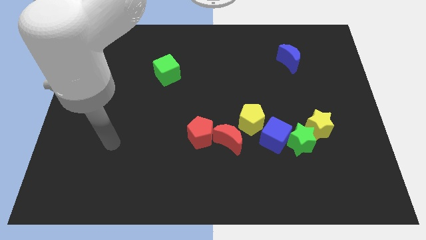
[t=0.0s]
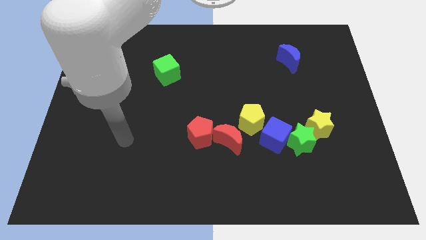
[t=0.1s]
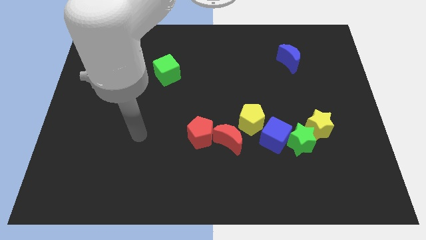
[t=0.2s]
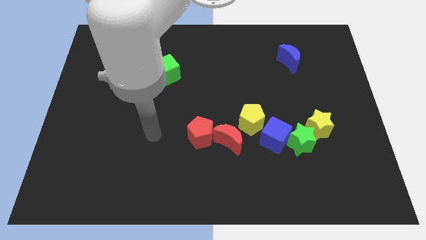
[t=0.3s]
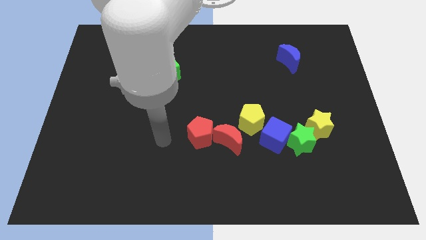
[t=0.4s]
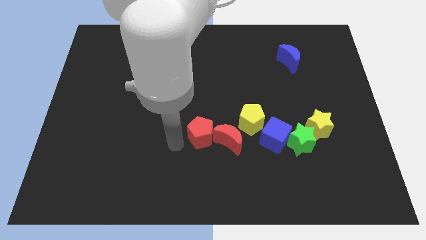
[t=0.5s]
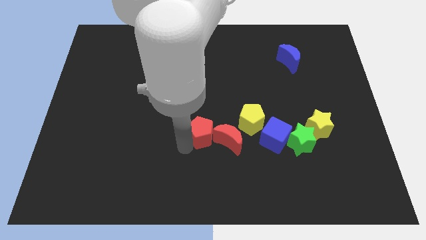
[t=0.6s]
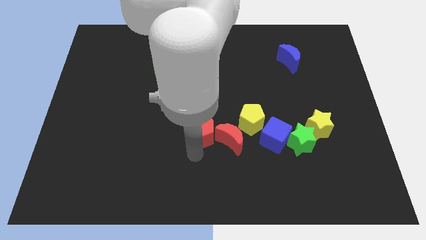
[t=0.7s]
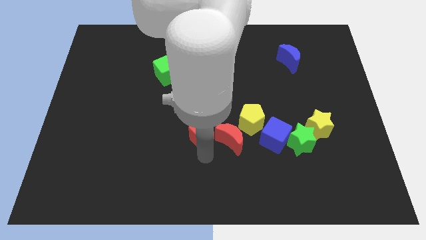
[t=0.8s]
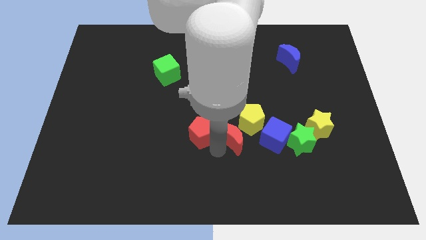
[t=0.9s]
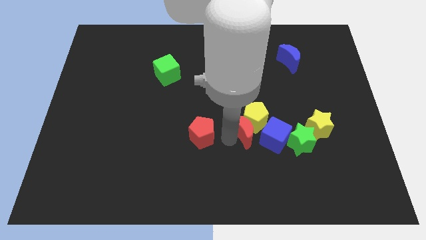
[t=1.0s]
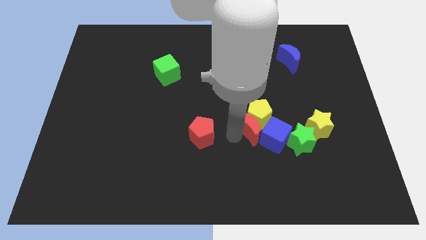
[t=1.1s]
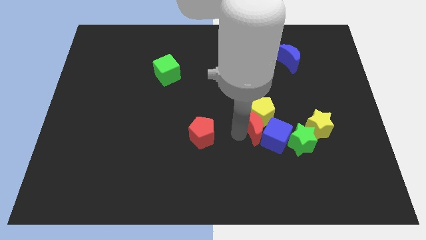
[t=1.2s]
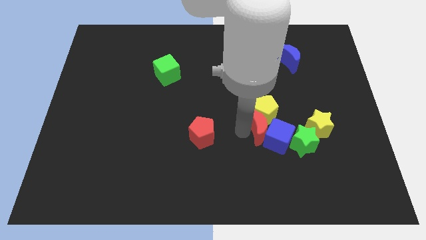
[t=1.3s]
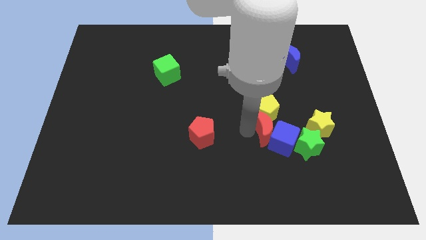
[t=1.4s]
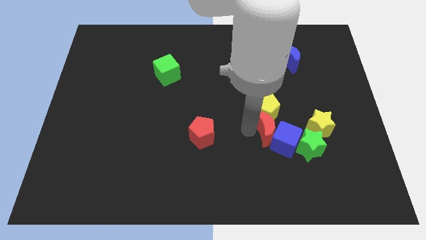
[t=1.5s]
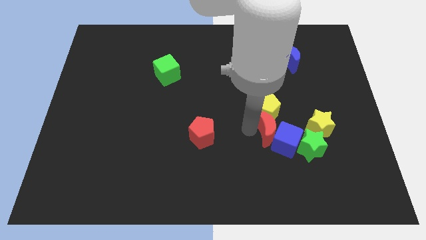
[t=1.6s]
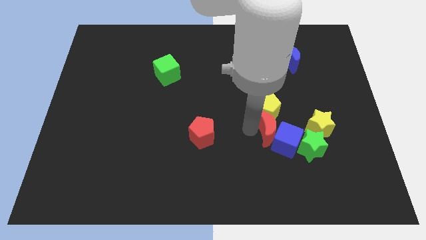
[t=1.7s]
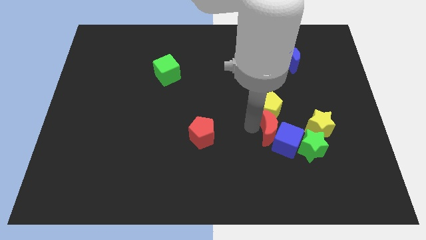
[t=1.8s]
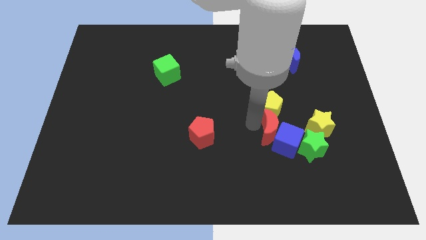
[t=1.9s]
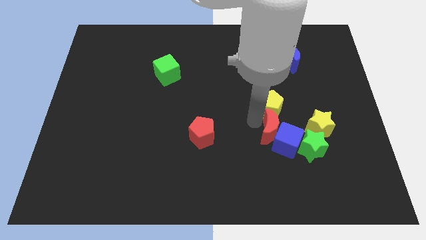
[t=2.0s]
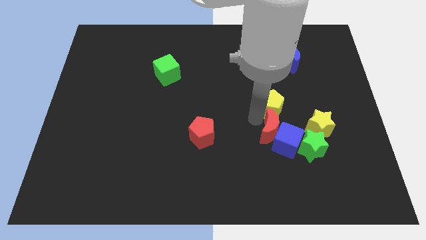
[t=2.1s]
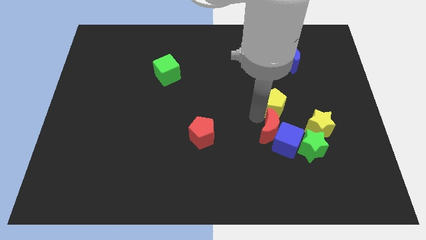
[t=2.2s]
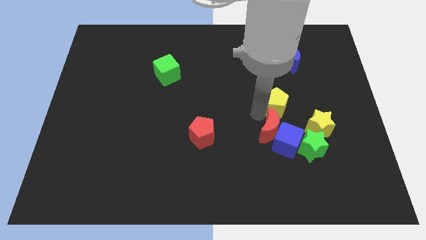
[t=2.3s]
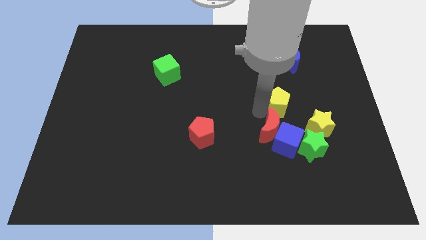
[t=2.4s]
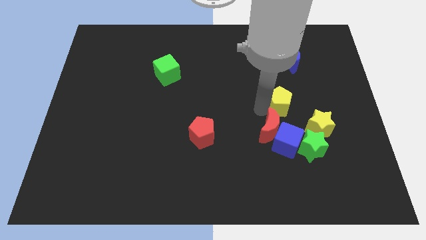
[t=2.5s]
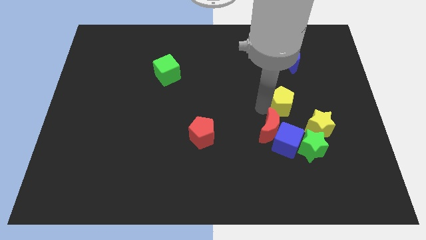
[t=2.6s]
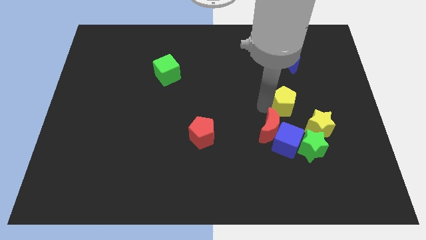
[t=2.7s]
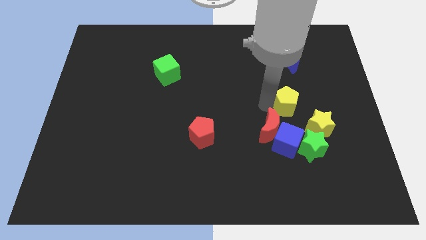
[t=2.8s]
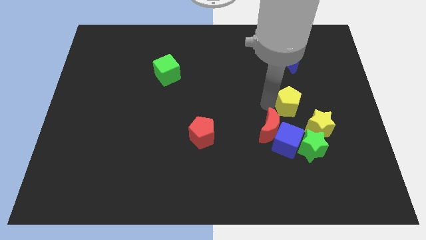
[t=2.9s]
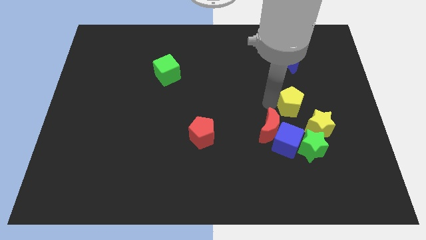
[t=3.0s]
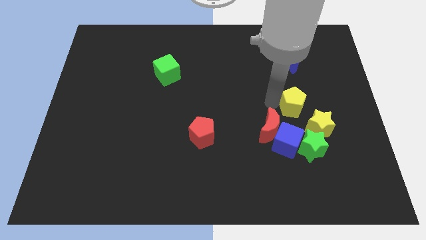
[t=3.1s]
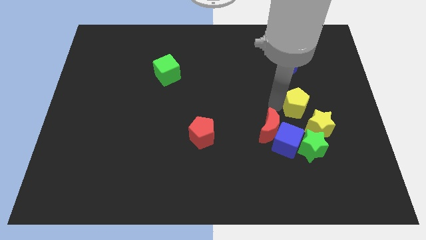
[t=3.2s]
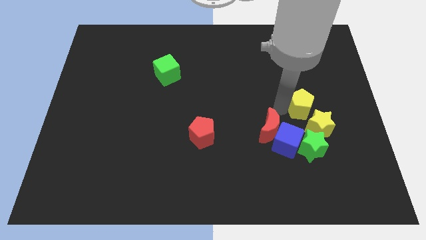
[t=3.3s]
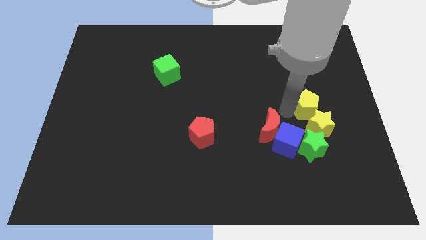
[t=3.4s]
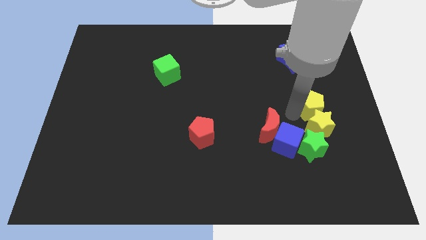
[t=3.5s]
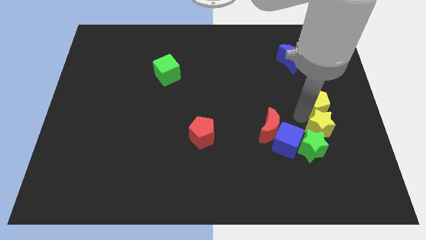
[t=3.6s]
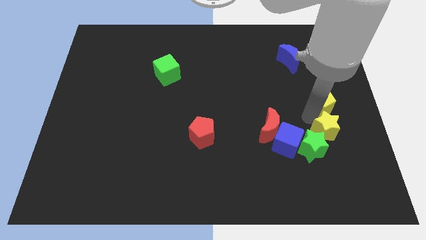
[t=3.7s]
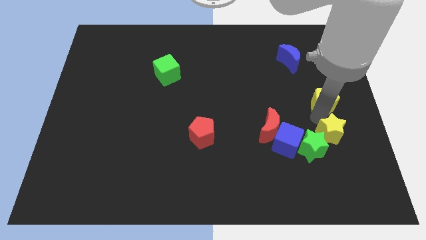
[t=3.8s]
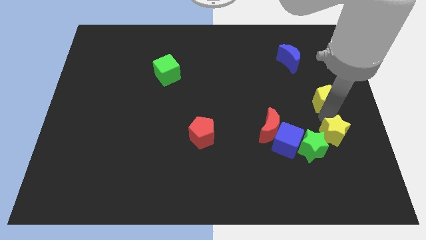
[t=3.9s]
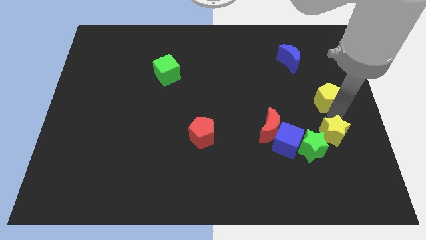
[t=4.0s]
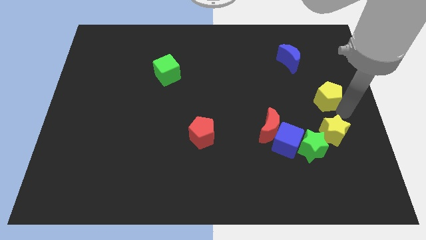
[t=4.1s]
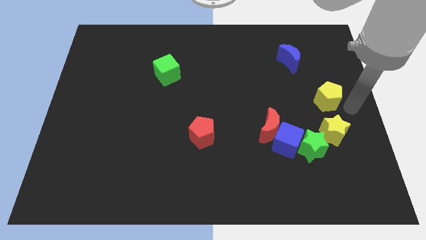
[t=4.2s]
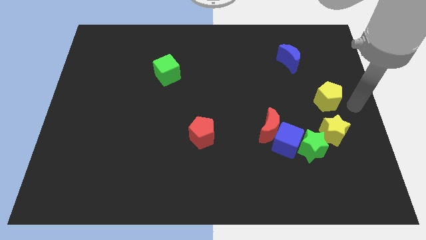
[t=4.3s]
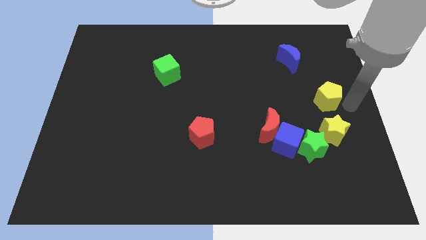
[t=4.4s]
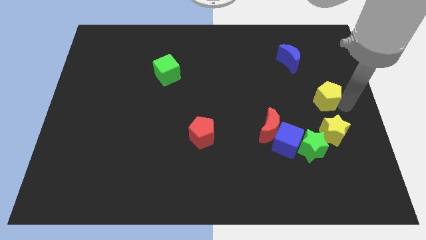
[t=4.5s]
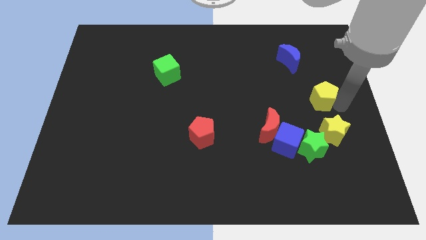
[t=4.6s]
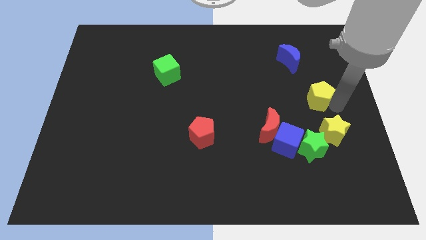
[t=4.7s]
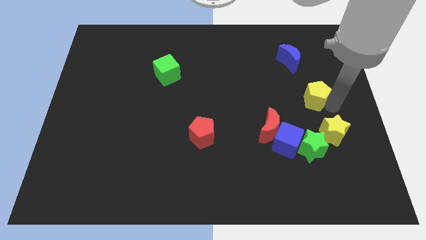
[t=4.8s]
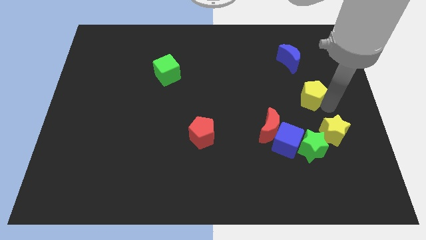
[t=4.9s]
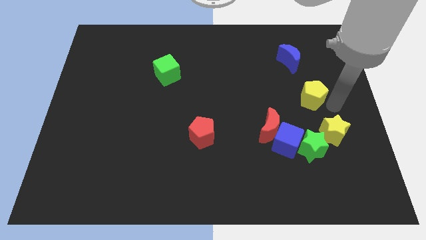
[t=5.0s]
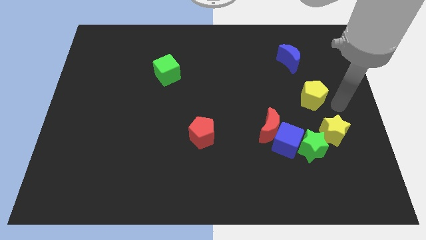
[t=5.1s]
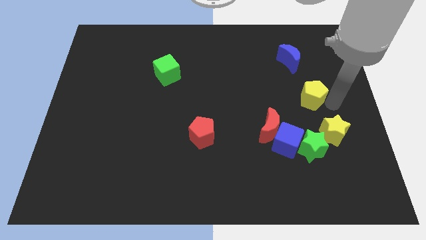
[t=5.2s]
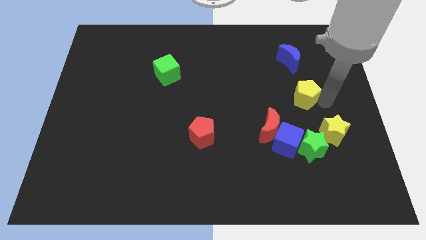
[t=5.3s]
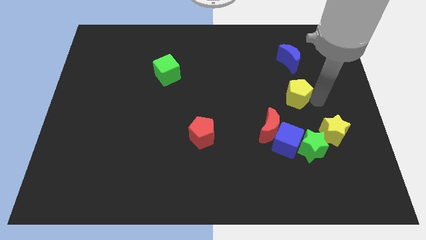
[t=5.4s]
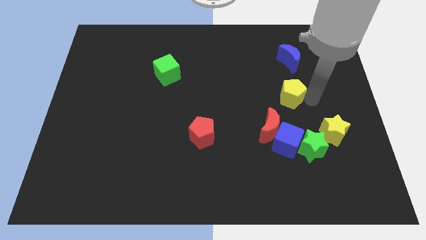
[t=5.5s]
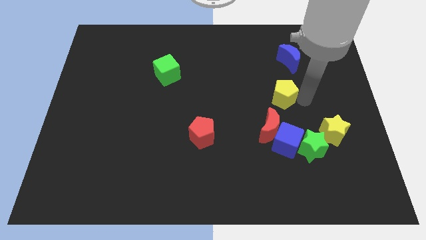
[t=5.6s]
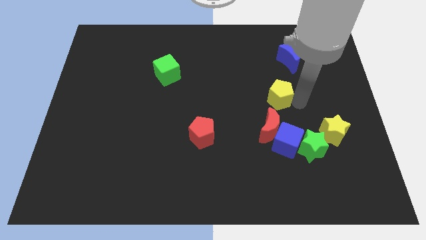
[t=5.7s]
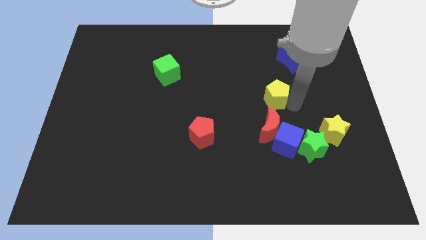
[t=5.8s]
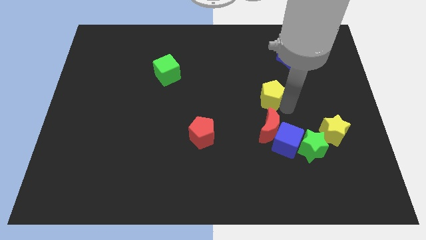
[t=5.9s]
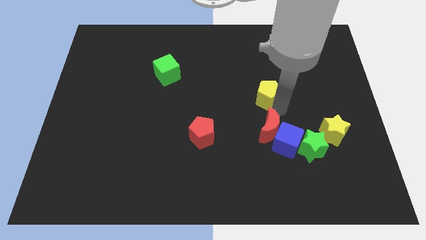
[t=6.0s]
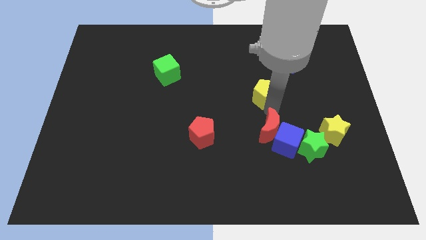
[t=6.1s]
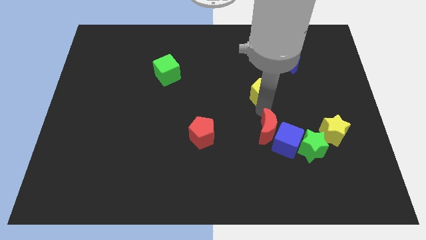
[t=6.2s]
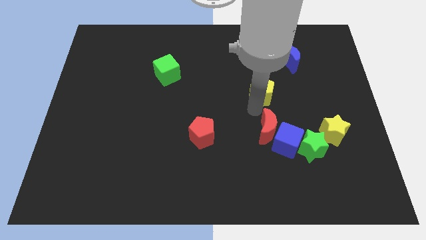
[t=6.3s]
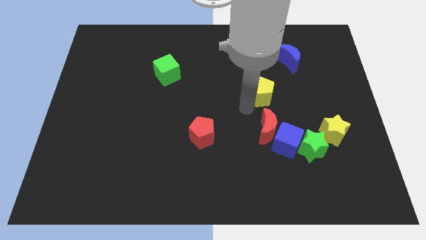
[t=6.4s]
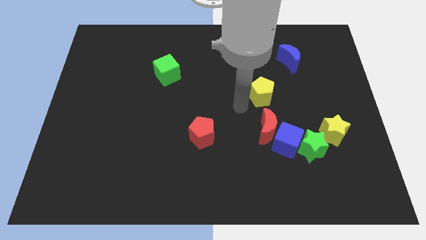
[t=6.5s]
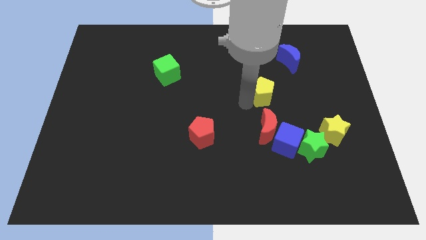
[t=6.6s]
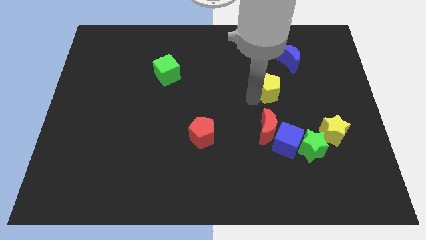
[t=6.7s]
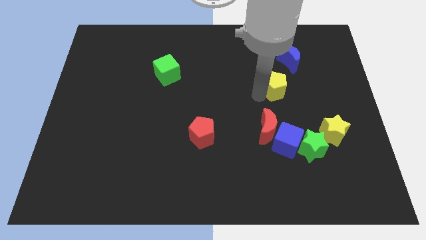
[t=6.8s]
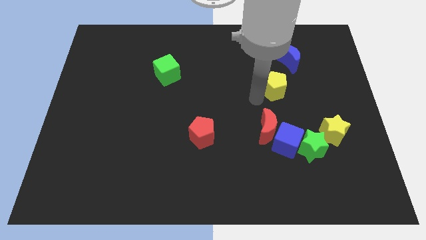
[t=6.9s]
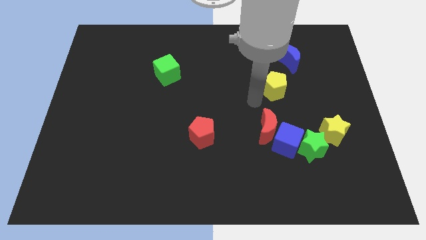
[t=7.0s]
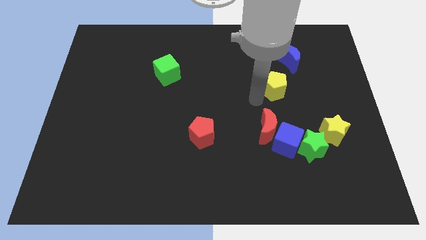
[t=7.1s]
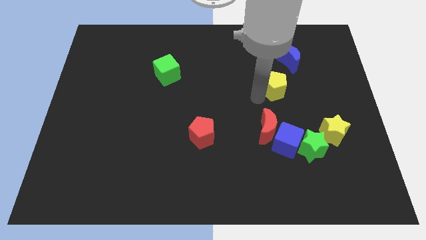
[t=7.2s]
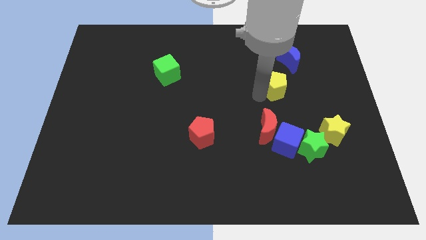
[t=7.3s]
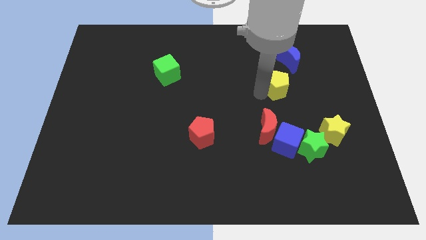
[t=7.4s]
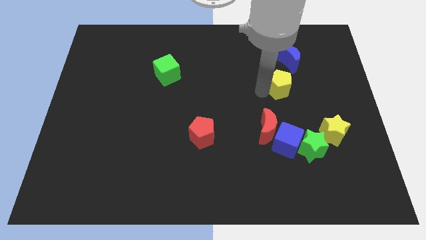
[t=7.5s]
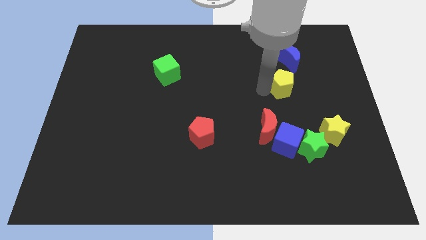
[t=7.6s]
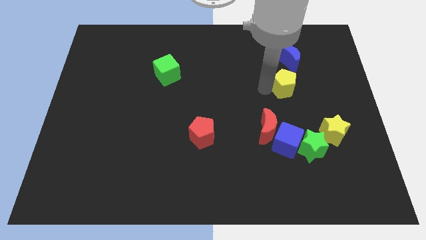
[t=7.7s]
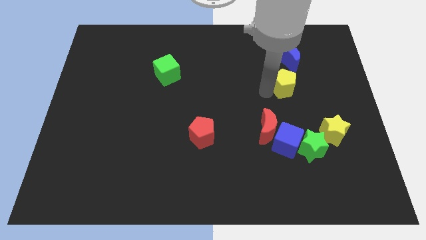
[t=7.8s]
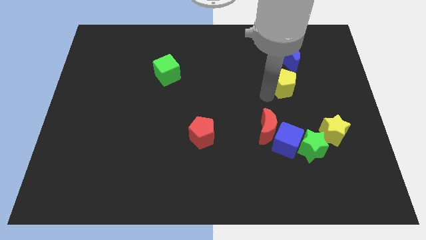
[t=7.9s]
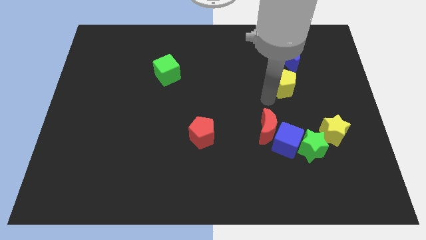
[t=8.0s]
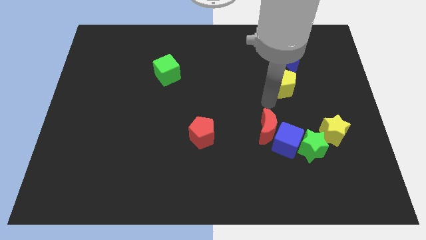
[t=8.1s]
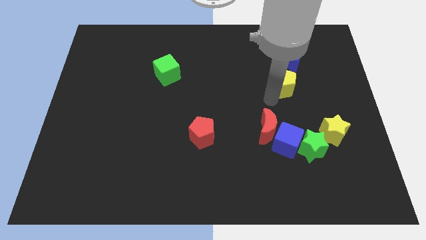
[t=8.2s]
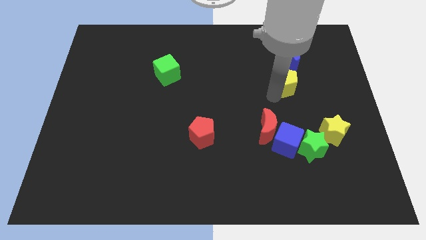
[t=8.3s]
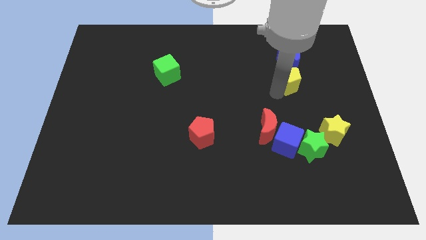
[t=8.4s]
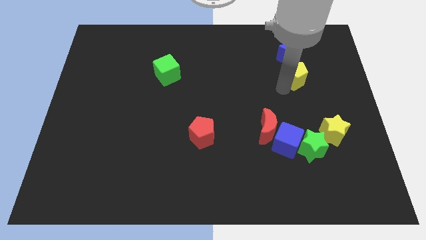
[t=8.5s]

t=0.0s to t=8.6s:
move the yellow pentagon towards the blue moon
